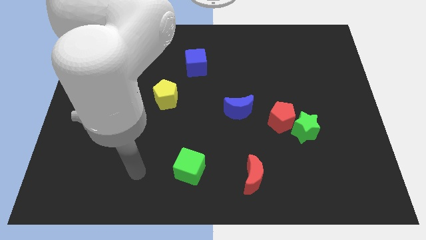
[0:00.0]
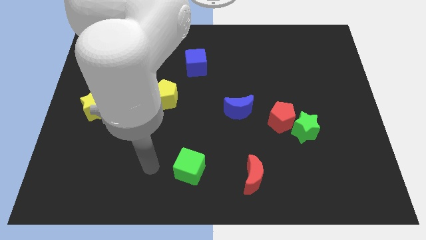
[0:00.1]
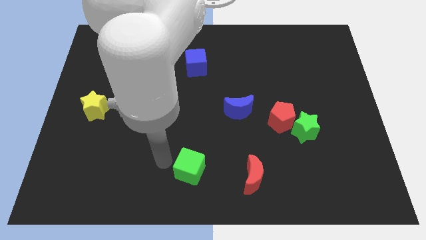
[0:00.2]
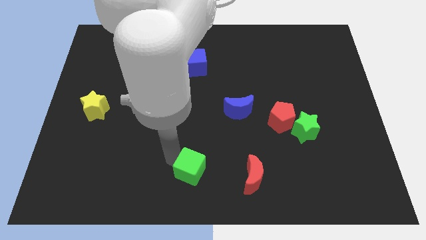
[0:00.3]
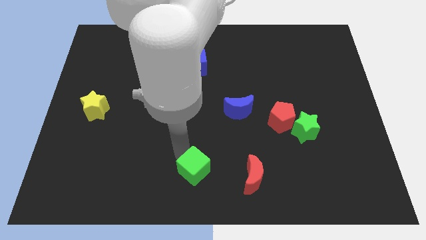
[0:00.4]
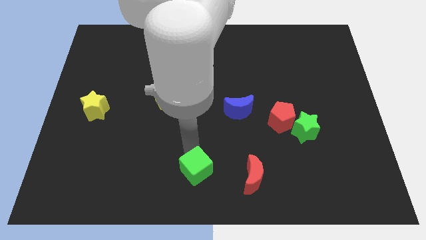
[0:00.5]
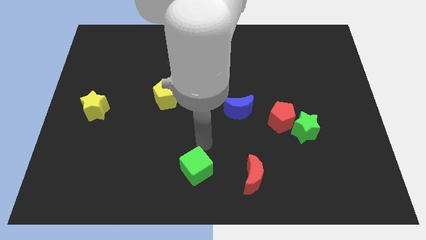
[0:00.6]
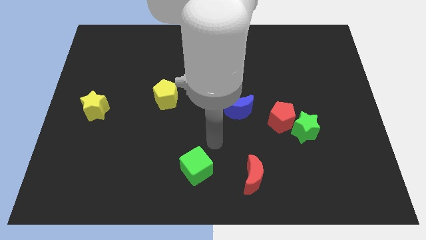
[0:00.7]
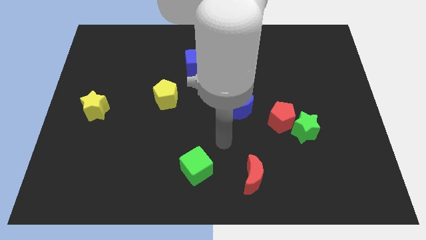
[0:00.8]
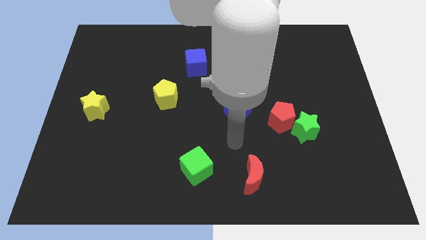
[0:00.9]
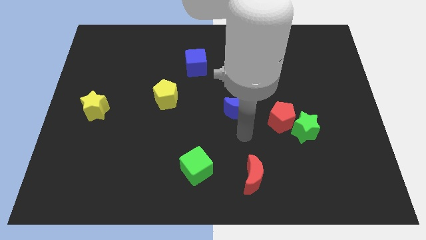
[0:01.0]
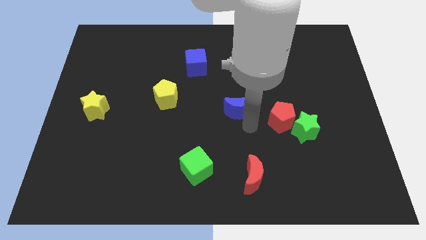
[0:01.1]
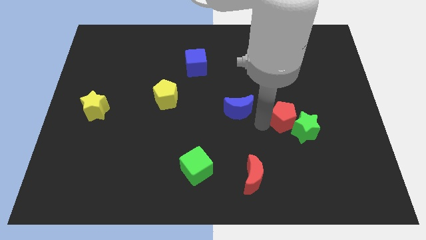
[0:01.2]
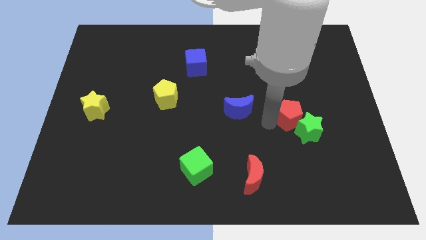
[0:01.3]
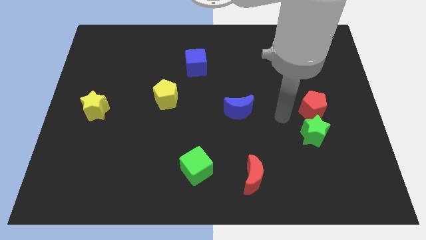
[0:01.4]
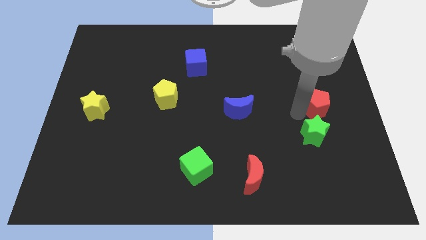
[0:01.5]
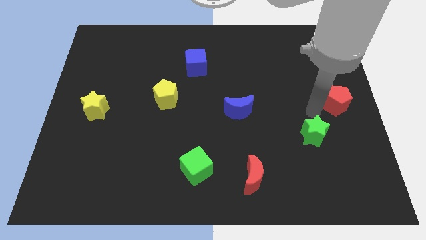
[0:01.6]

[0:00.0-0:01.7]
pull the green star apart from the red pentagon

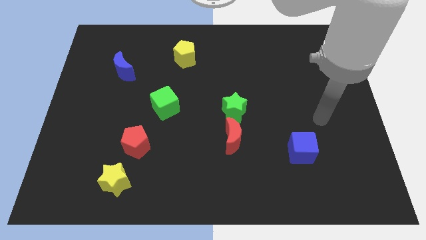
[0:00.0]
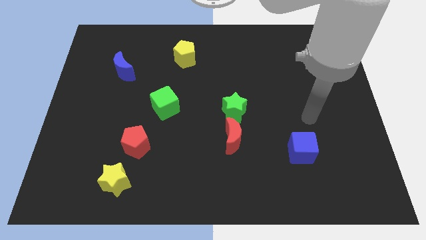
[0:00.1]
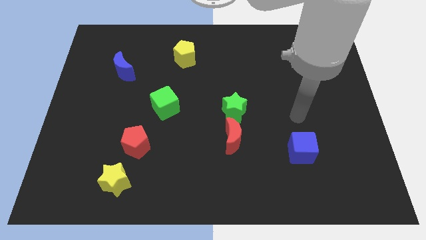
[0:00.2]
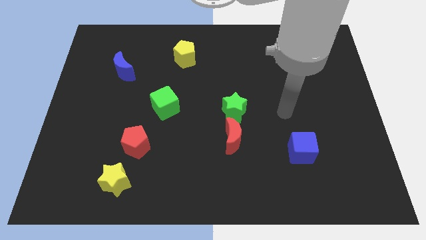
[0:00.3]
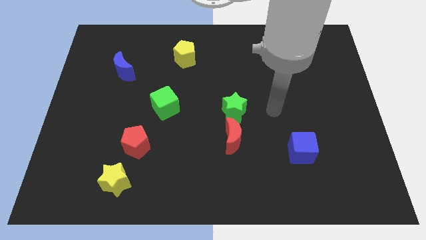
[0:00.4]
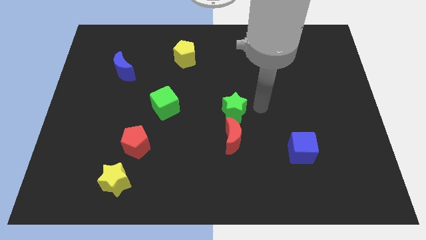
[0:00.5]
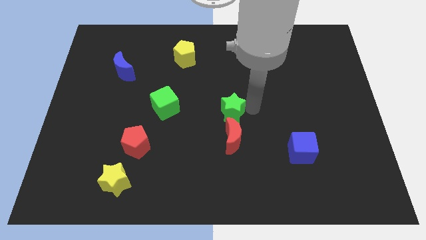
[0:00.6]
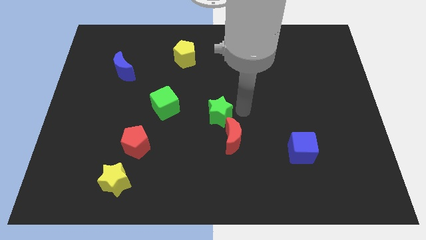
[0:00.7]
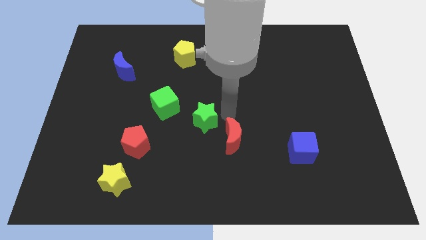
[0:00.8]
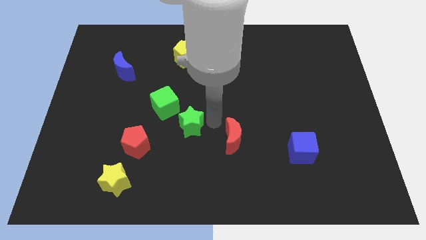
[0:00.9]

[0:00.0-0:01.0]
pull the red moon apart from the green star

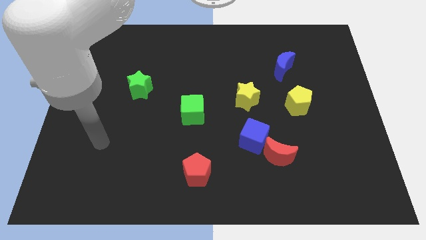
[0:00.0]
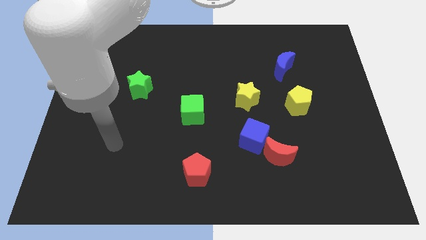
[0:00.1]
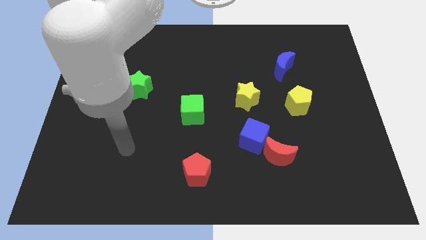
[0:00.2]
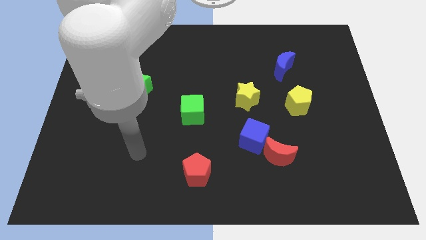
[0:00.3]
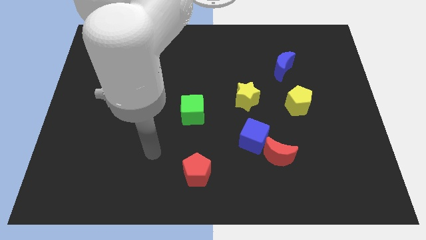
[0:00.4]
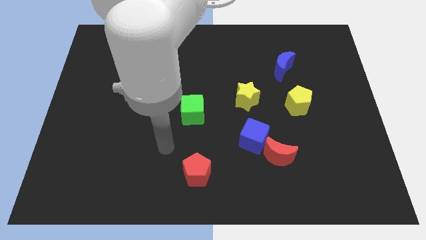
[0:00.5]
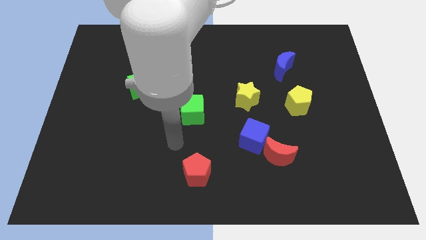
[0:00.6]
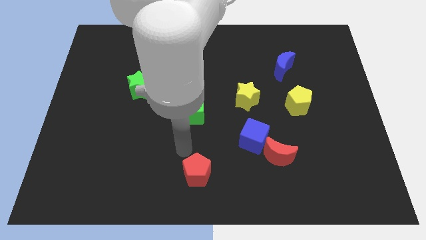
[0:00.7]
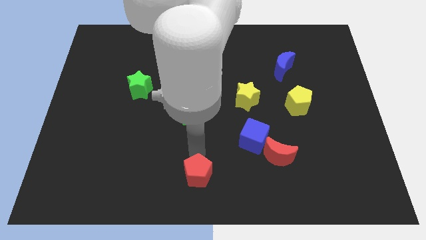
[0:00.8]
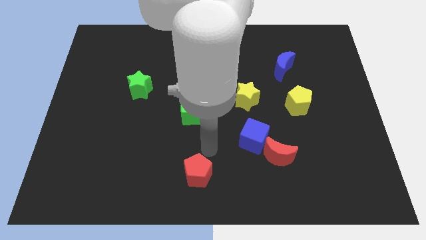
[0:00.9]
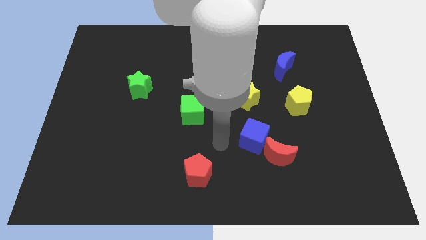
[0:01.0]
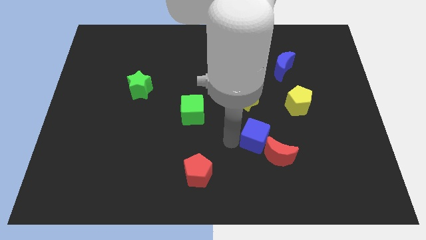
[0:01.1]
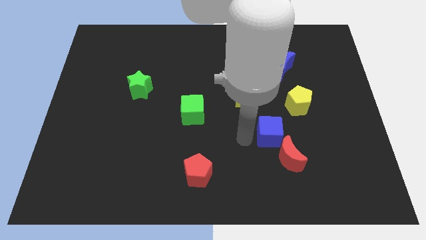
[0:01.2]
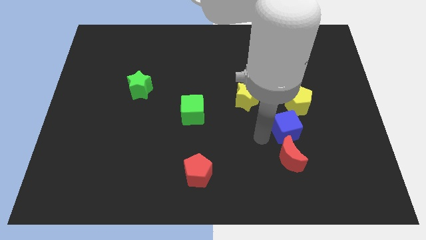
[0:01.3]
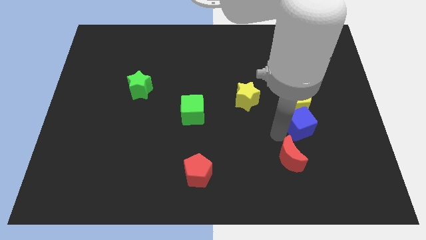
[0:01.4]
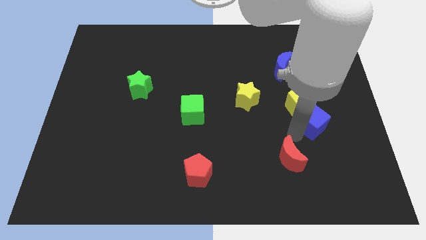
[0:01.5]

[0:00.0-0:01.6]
move the red moon away from the blue cube

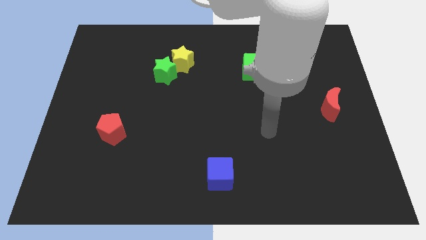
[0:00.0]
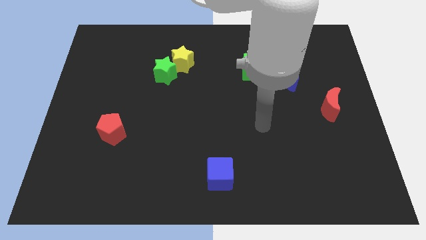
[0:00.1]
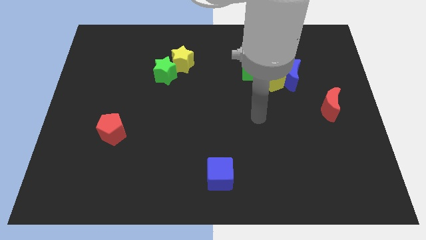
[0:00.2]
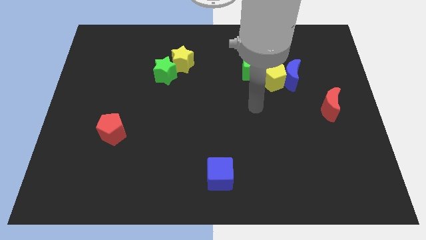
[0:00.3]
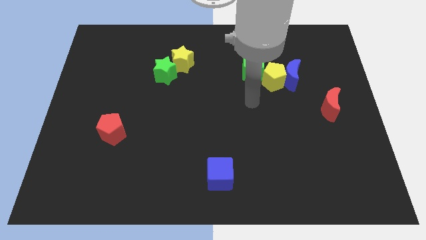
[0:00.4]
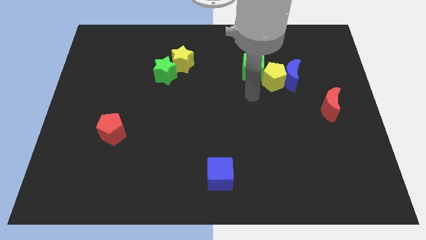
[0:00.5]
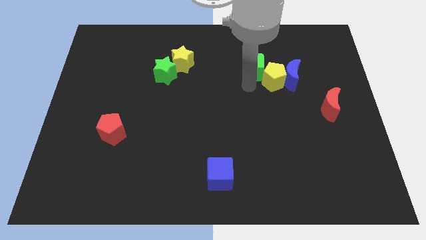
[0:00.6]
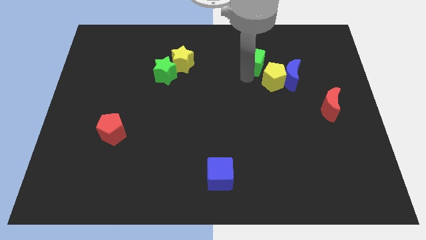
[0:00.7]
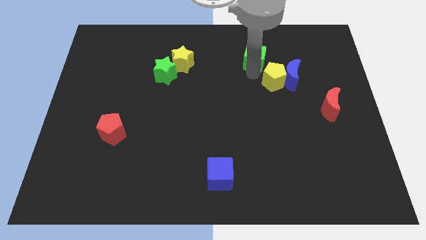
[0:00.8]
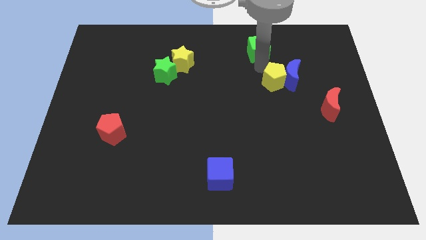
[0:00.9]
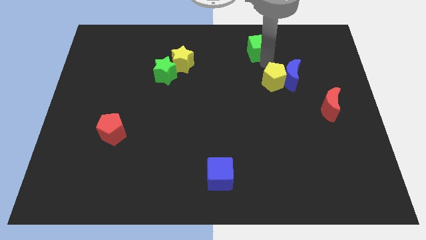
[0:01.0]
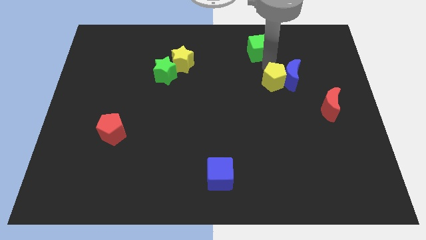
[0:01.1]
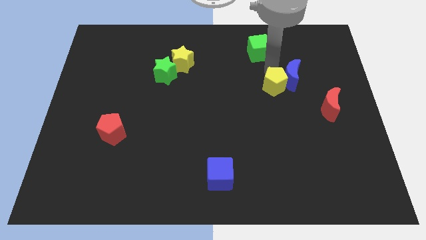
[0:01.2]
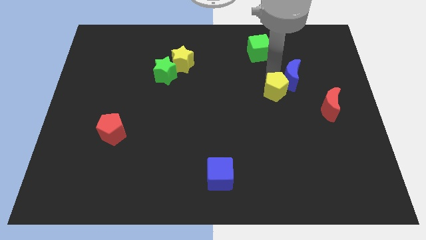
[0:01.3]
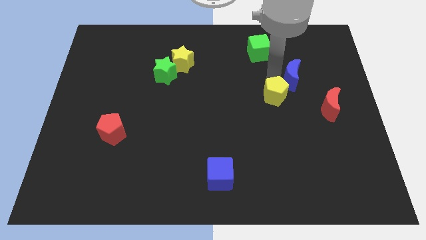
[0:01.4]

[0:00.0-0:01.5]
move the yellow pentagon away from the blue moon and green cube

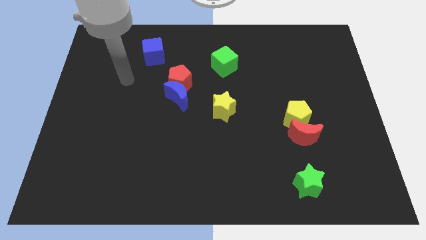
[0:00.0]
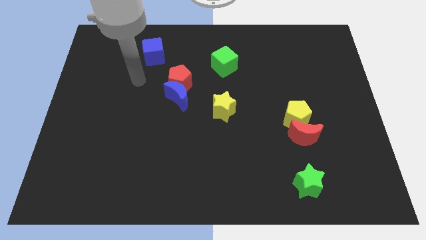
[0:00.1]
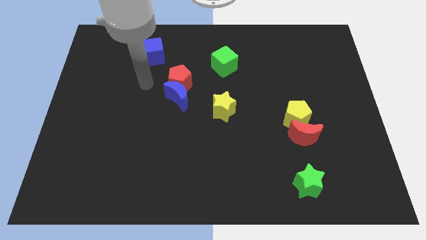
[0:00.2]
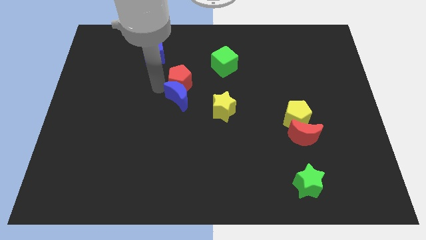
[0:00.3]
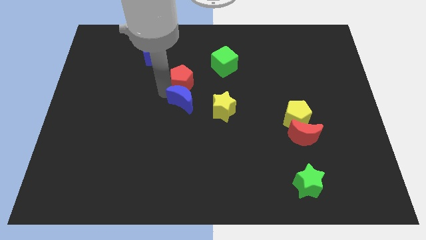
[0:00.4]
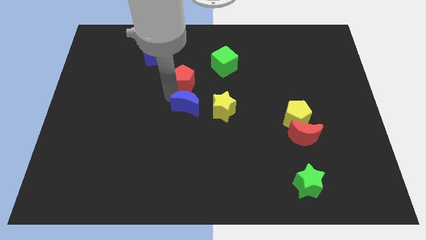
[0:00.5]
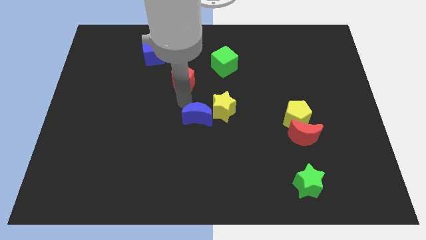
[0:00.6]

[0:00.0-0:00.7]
move the red pentagon away from the blue moon

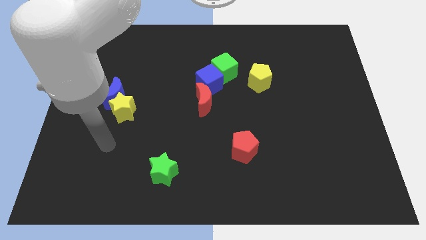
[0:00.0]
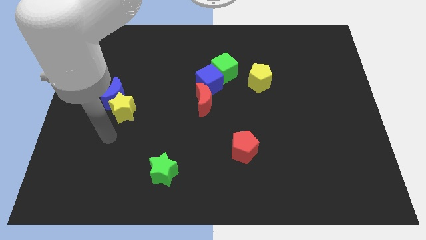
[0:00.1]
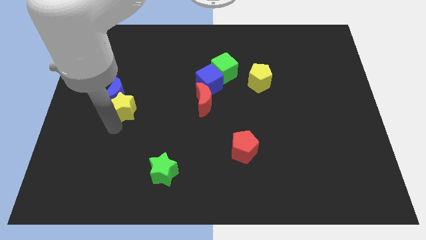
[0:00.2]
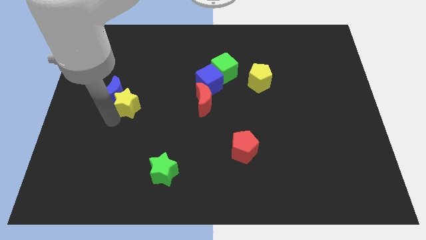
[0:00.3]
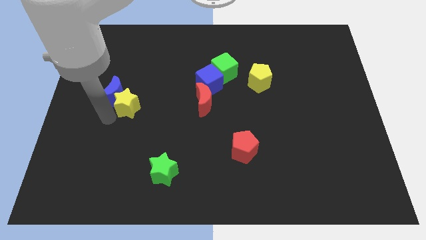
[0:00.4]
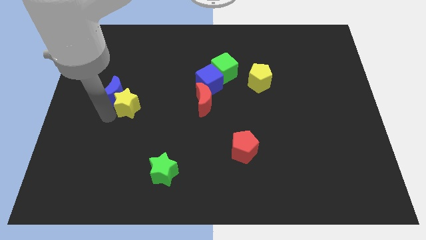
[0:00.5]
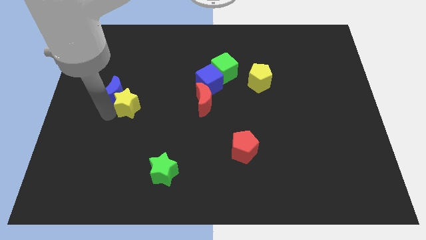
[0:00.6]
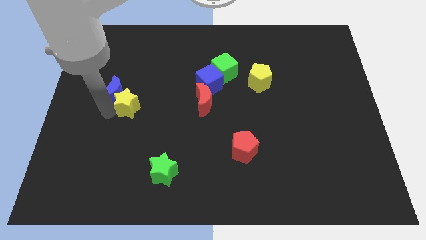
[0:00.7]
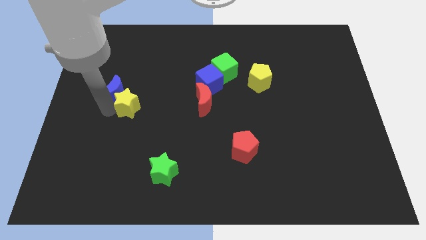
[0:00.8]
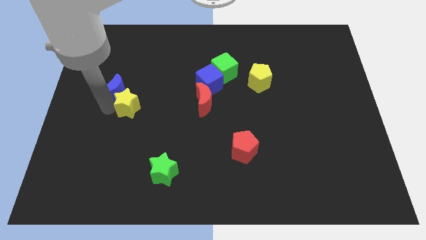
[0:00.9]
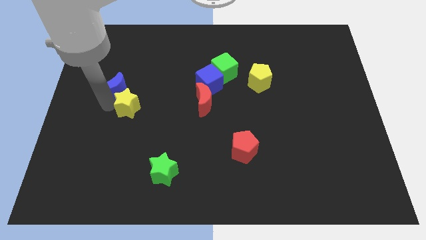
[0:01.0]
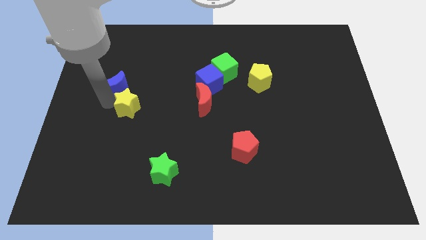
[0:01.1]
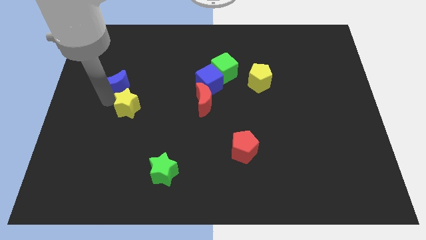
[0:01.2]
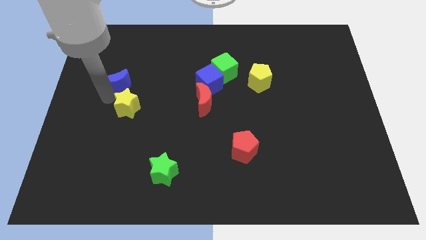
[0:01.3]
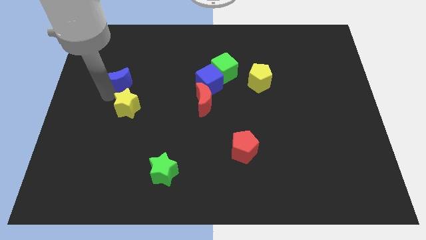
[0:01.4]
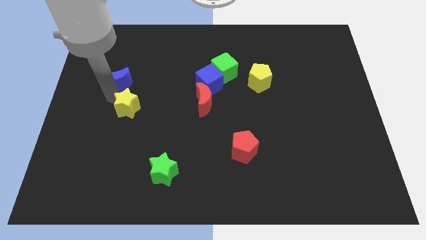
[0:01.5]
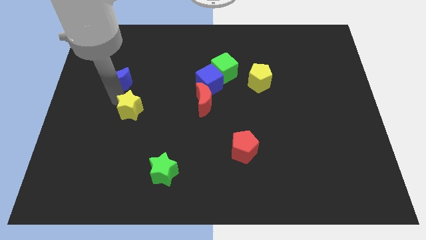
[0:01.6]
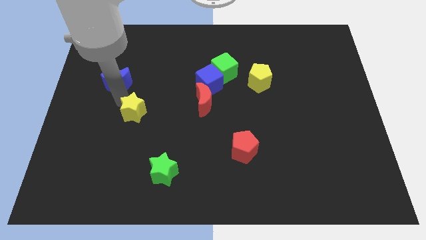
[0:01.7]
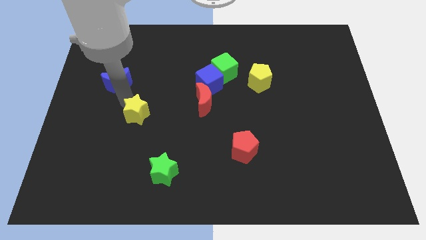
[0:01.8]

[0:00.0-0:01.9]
separate the blue moon from the yellow star

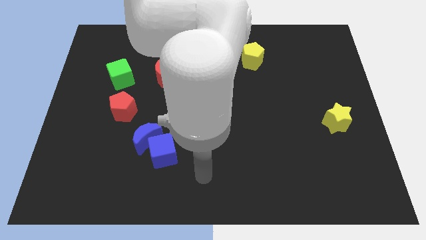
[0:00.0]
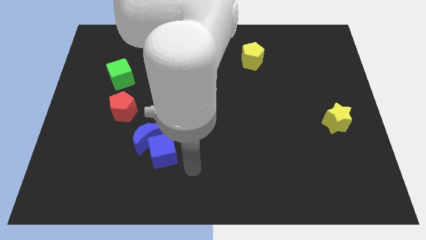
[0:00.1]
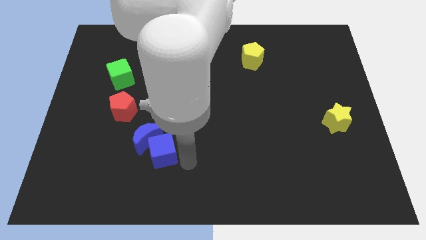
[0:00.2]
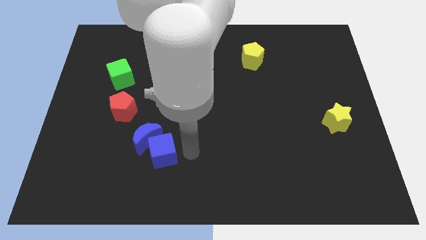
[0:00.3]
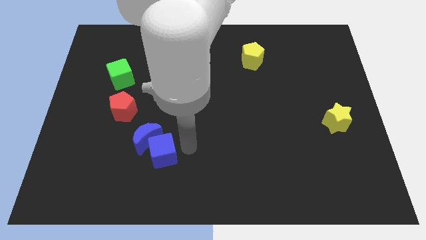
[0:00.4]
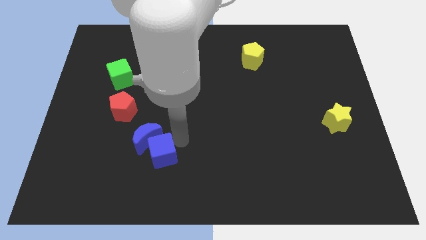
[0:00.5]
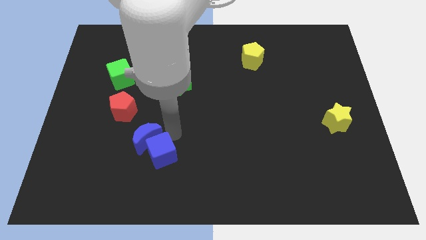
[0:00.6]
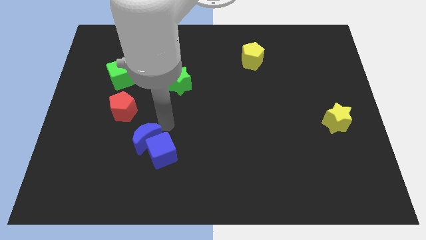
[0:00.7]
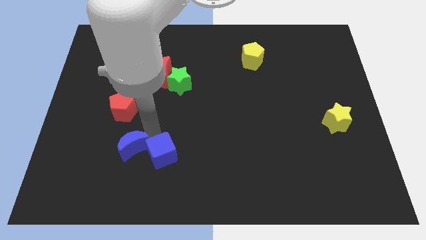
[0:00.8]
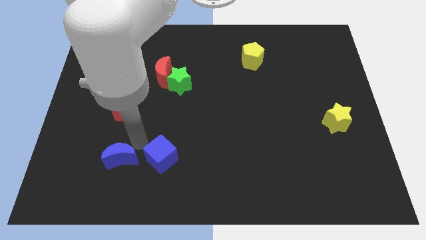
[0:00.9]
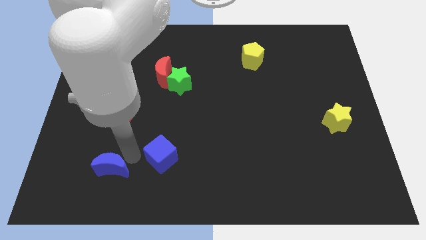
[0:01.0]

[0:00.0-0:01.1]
separate the blue cube from the blue moon

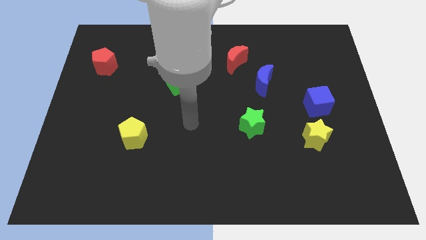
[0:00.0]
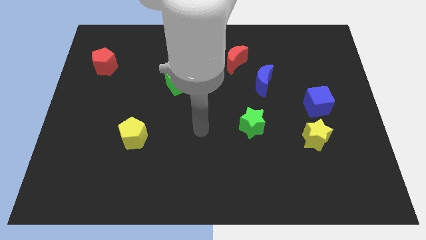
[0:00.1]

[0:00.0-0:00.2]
separate the blue cube from the yellow star
